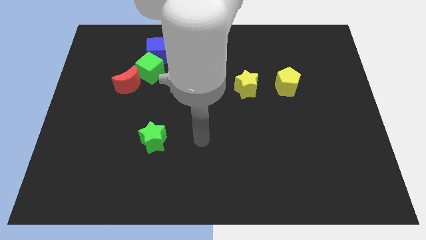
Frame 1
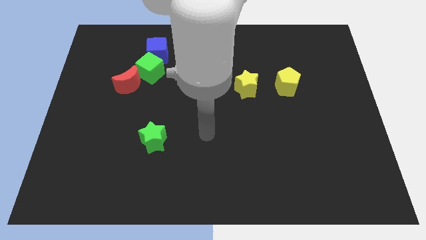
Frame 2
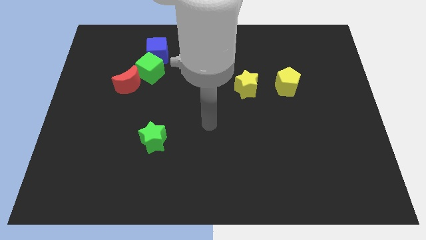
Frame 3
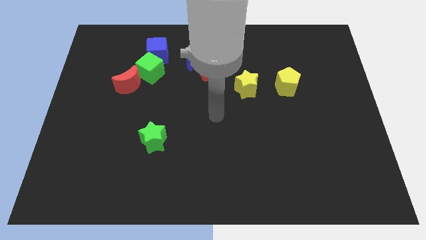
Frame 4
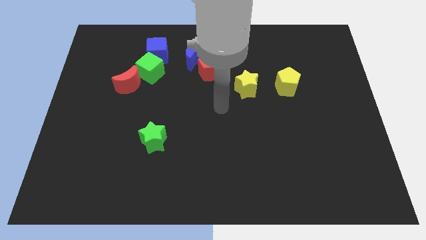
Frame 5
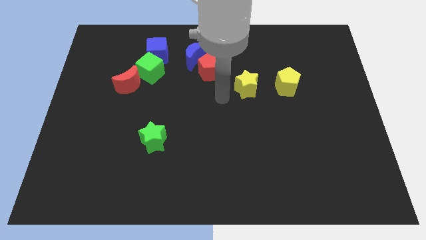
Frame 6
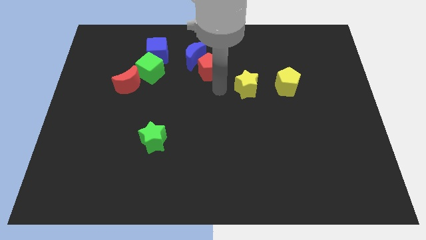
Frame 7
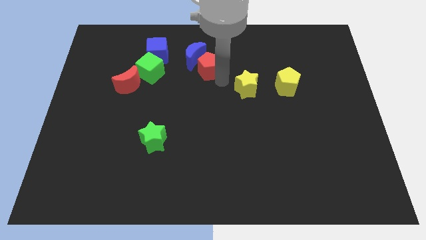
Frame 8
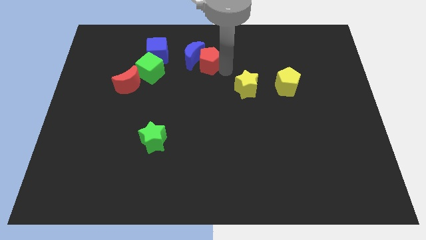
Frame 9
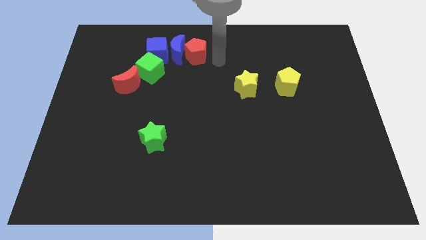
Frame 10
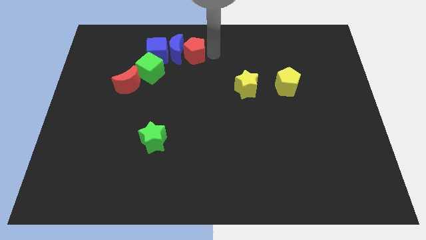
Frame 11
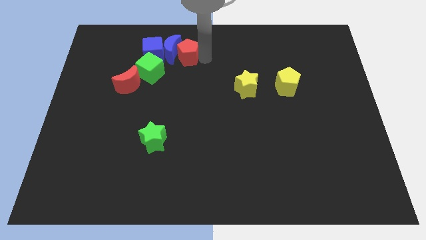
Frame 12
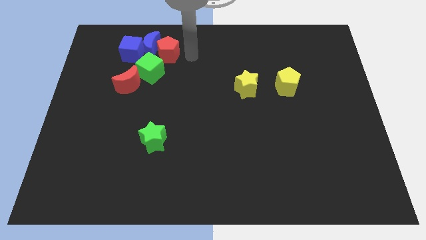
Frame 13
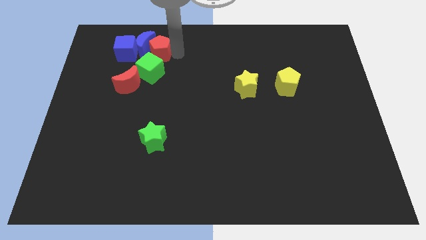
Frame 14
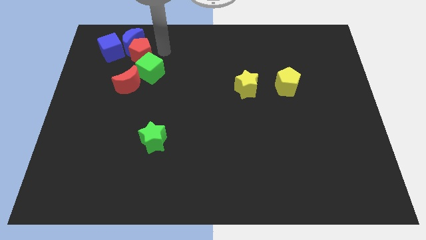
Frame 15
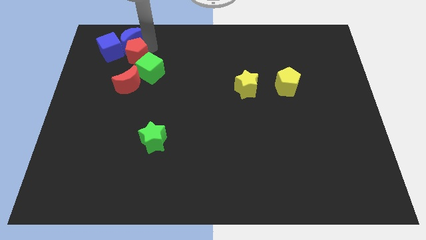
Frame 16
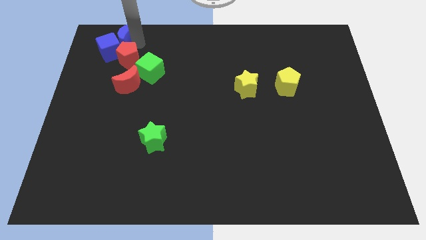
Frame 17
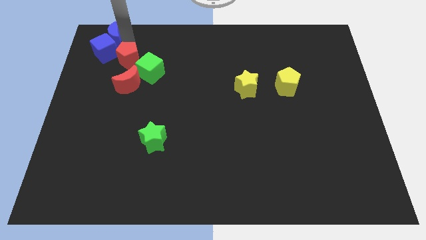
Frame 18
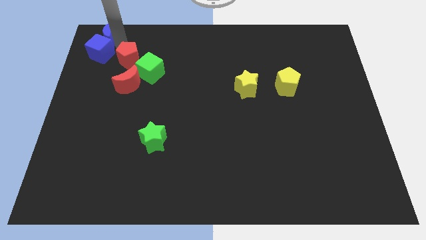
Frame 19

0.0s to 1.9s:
separate the red pentagon from the blue moon

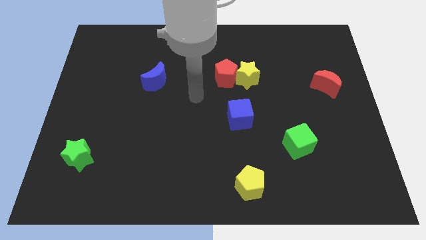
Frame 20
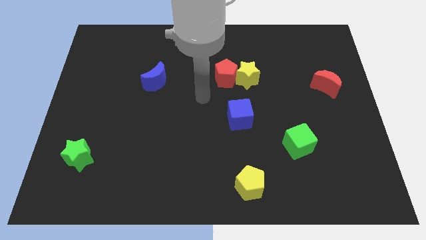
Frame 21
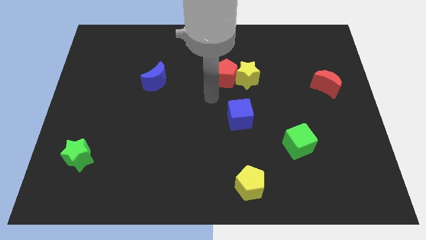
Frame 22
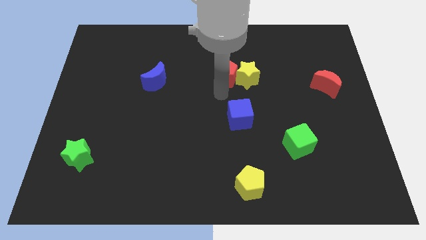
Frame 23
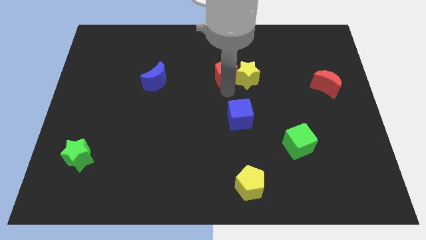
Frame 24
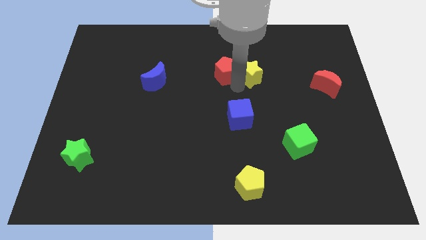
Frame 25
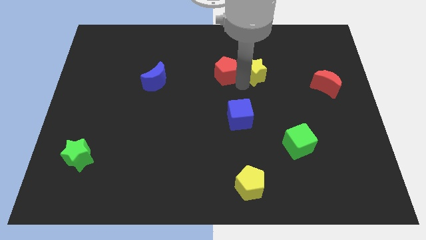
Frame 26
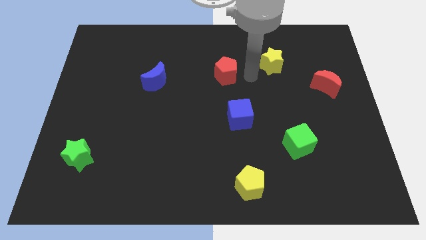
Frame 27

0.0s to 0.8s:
move the red pentagon away from the yellow star

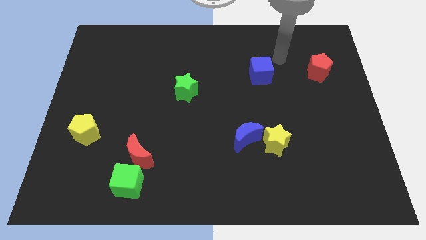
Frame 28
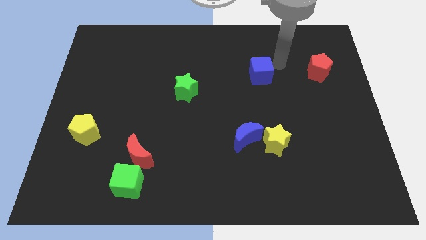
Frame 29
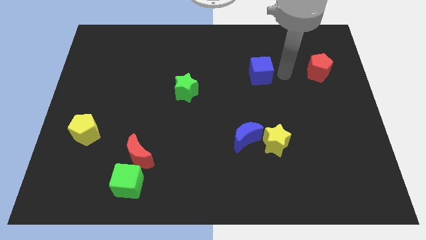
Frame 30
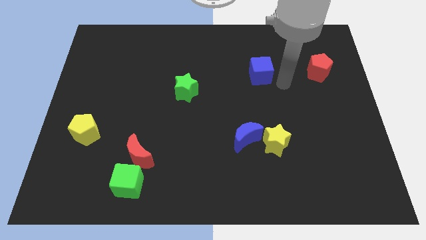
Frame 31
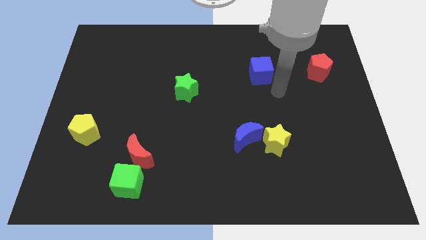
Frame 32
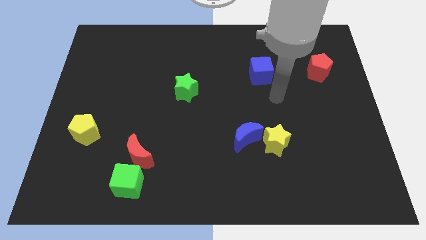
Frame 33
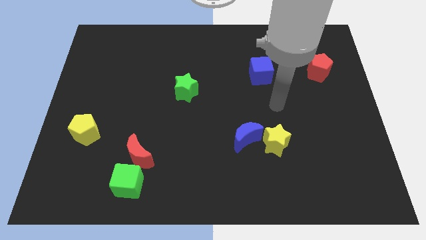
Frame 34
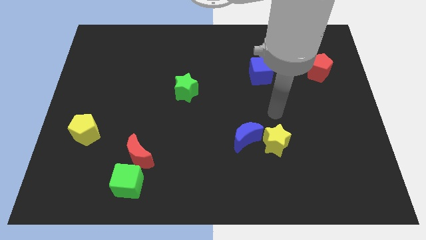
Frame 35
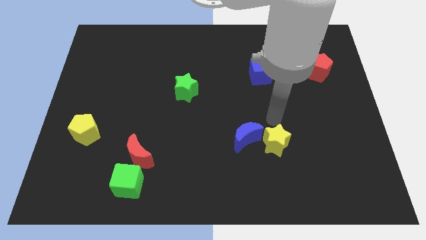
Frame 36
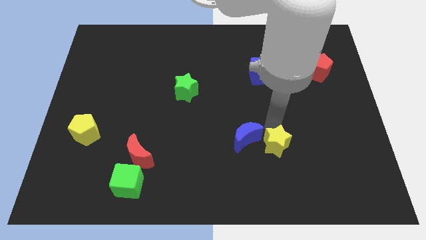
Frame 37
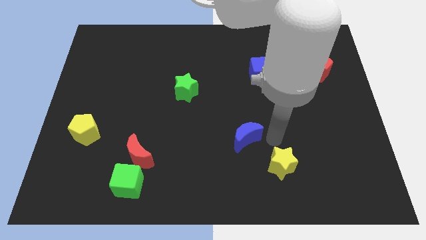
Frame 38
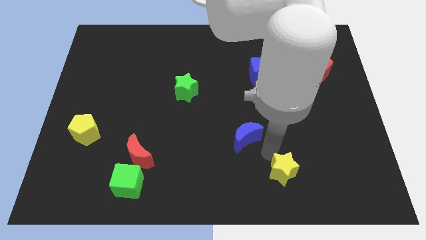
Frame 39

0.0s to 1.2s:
move the blue moon away from the yellow star

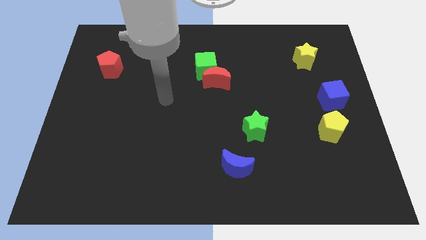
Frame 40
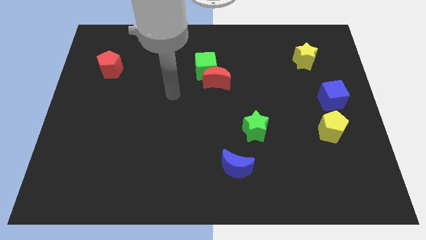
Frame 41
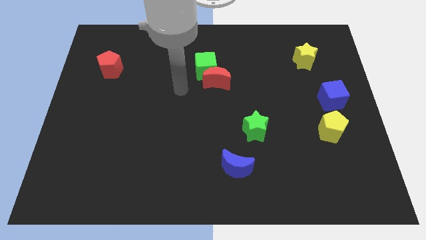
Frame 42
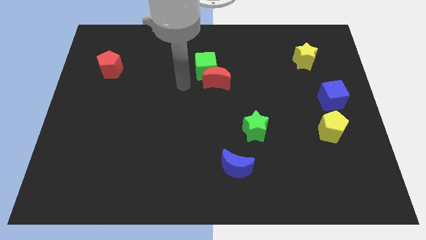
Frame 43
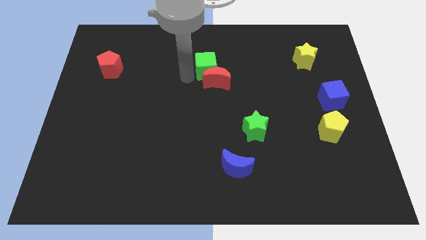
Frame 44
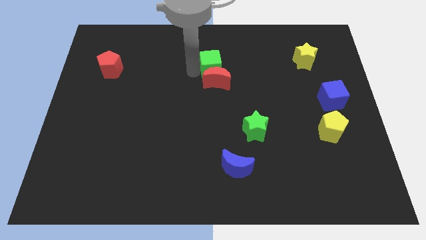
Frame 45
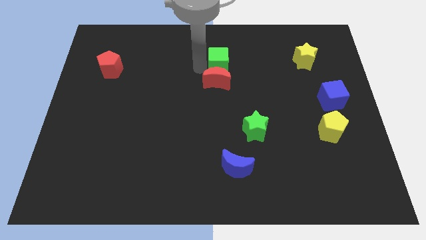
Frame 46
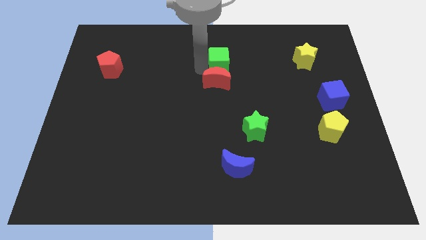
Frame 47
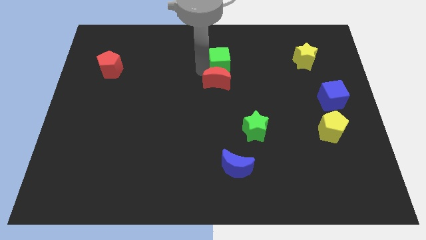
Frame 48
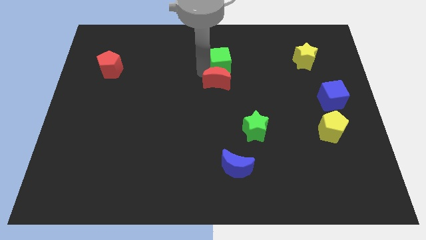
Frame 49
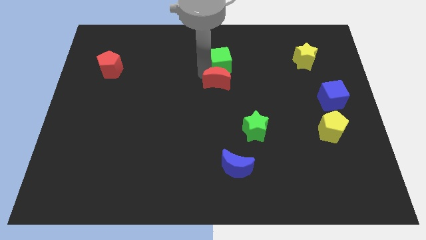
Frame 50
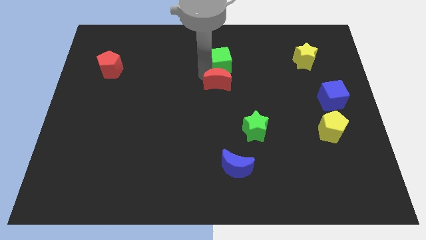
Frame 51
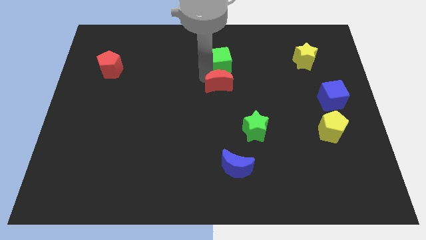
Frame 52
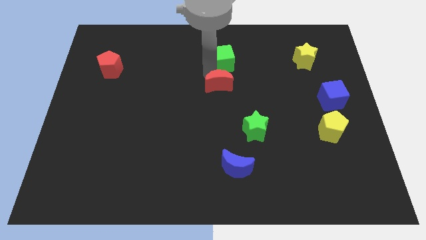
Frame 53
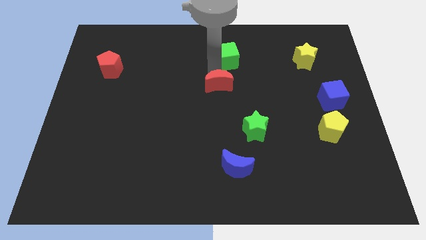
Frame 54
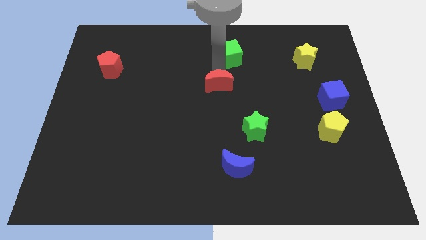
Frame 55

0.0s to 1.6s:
move the red moon away from the green cube

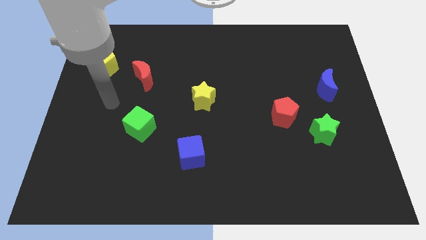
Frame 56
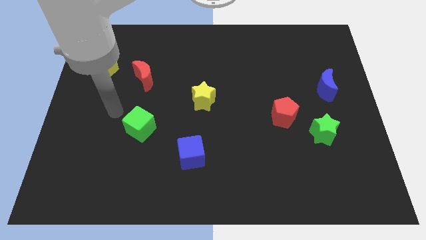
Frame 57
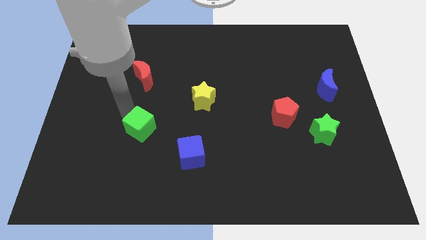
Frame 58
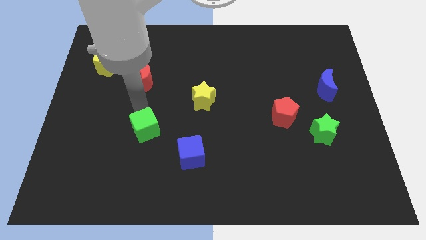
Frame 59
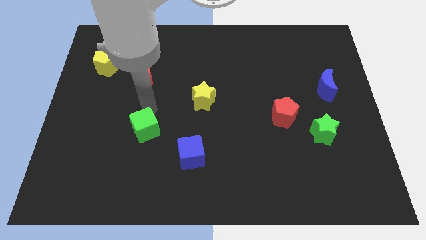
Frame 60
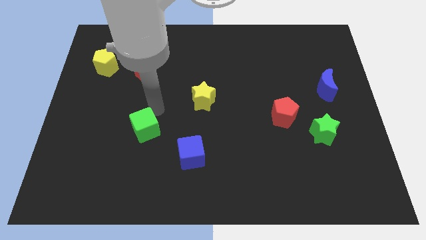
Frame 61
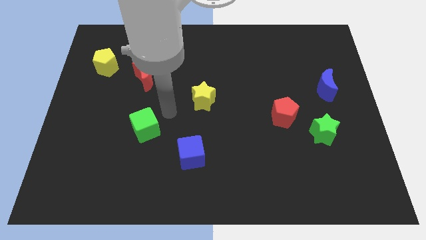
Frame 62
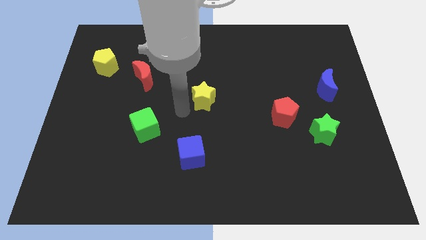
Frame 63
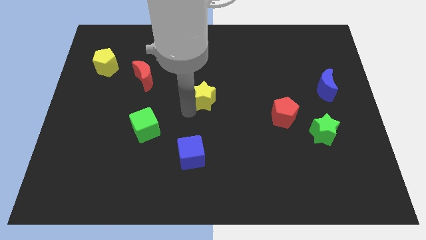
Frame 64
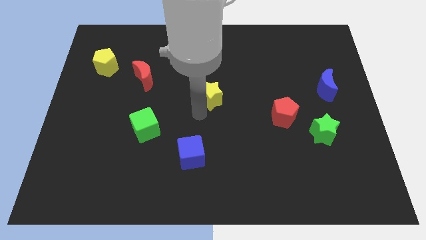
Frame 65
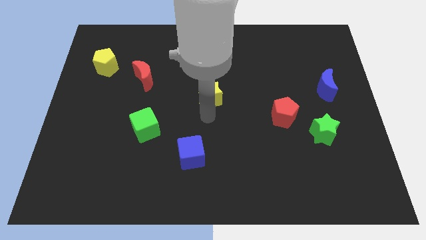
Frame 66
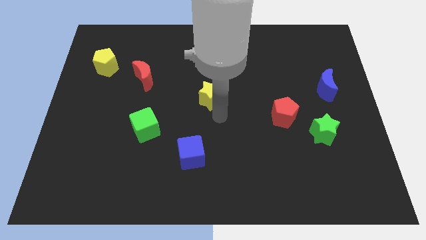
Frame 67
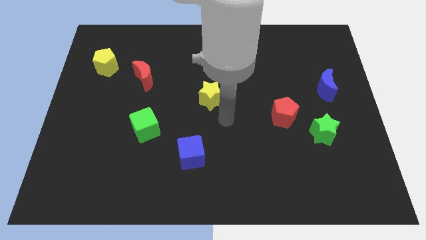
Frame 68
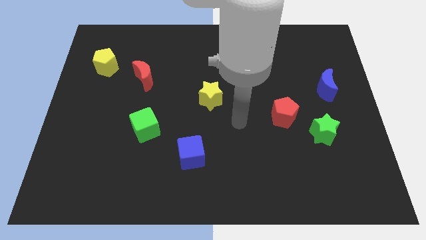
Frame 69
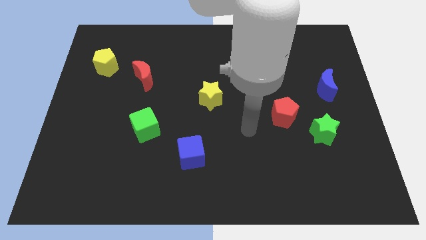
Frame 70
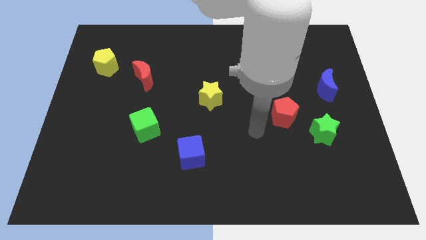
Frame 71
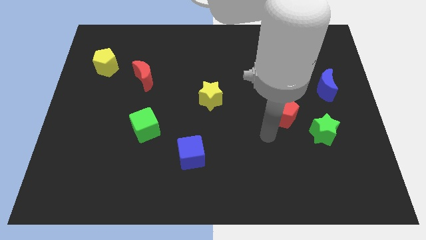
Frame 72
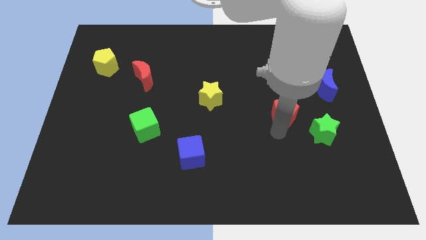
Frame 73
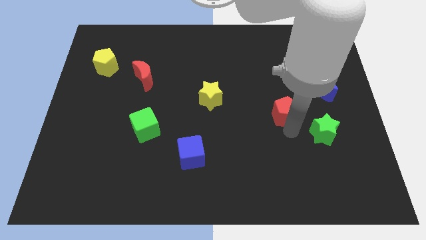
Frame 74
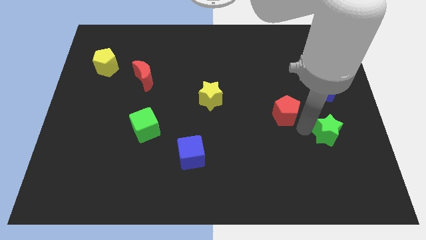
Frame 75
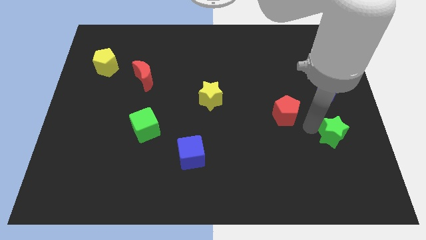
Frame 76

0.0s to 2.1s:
move the red pentagon away from the green star

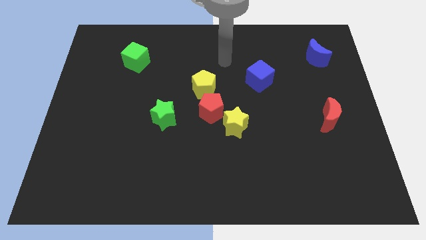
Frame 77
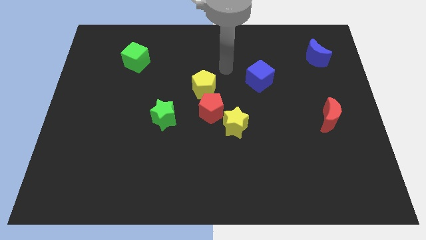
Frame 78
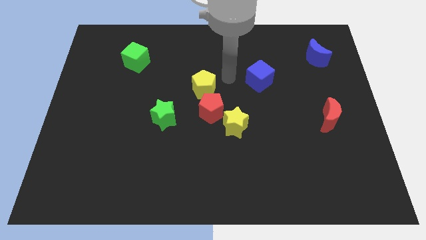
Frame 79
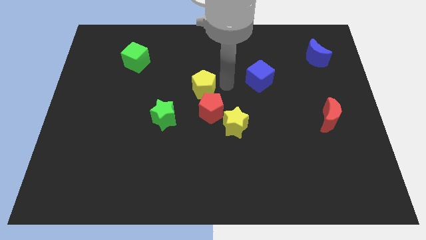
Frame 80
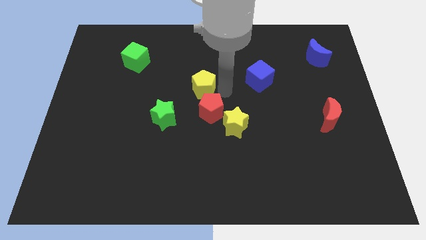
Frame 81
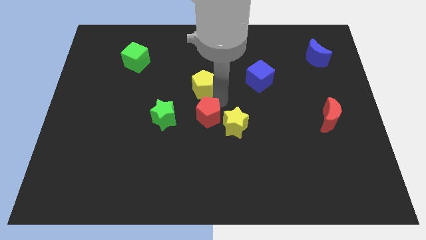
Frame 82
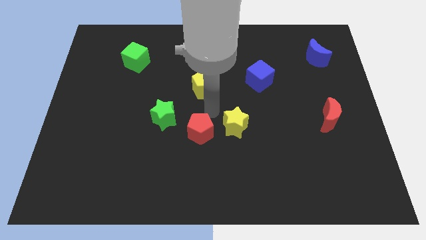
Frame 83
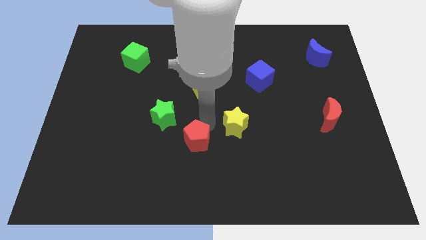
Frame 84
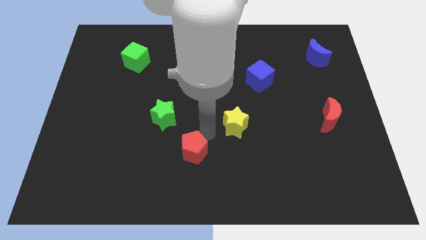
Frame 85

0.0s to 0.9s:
separate the yellow star from the red pentagon

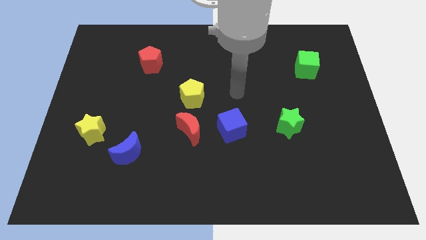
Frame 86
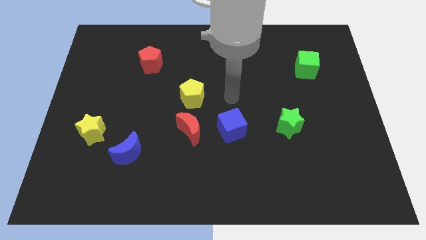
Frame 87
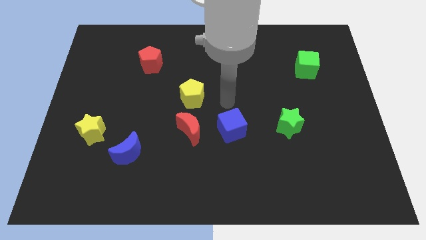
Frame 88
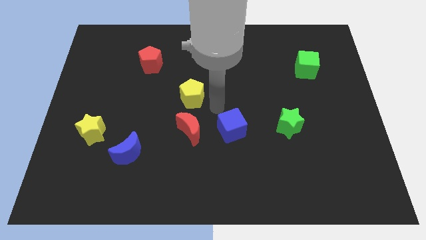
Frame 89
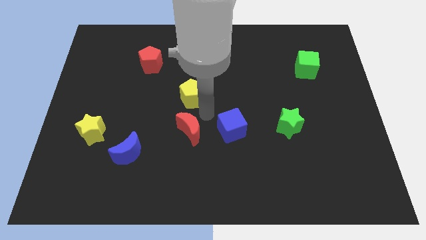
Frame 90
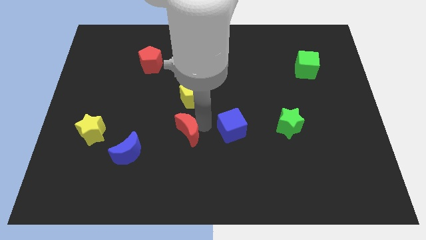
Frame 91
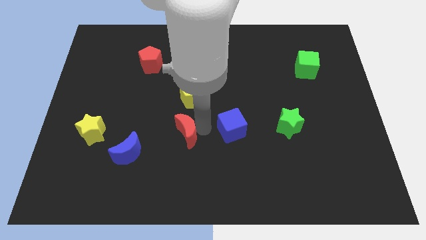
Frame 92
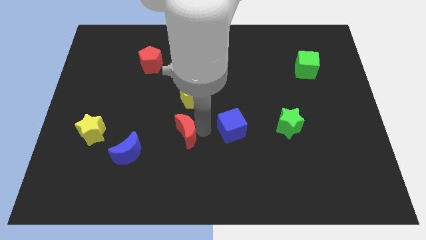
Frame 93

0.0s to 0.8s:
move the blue cube away from the red moon

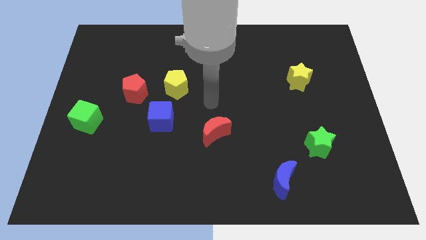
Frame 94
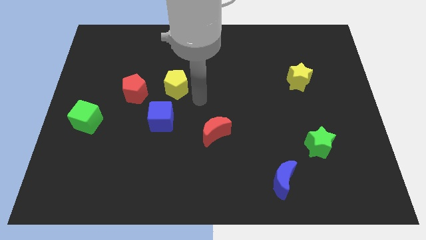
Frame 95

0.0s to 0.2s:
move the red pentagon away from the yellow pentagon
